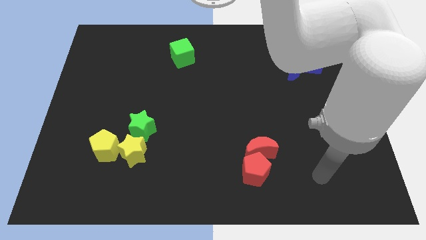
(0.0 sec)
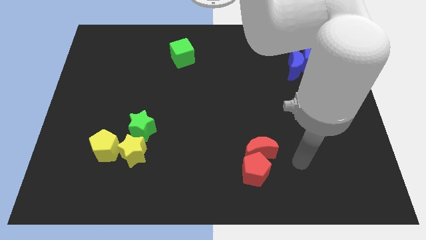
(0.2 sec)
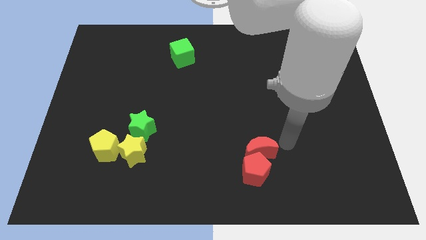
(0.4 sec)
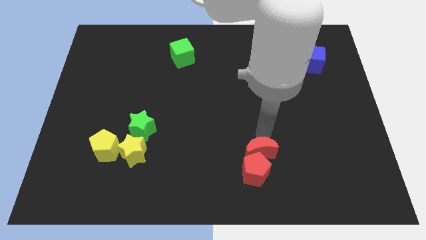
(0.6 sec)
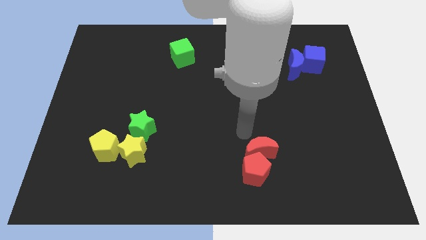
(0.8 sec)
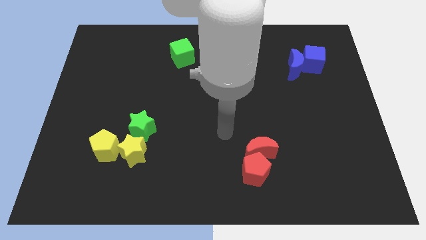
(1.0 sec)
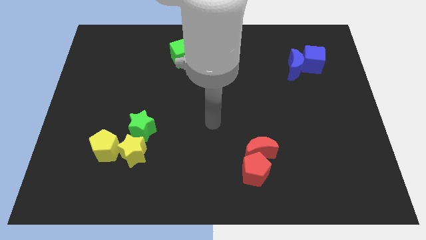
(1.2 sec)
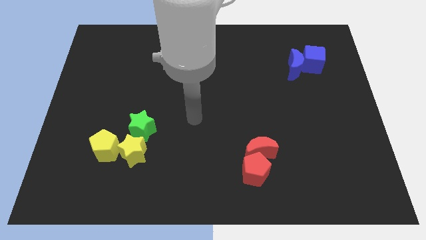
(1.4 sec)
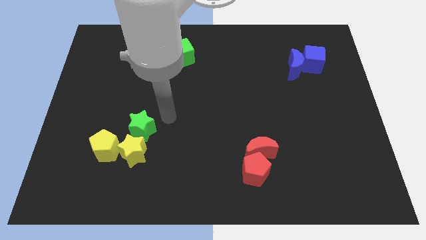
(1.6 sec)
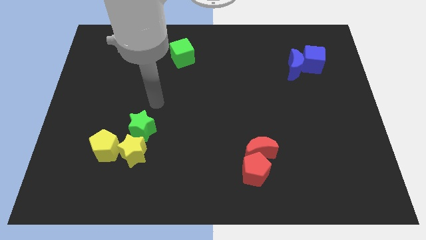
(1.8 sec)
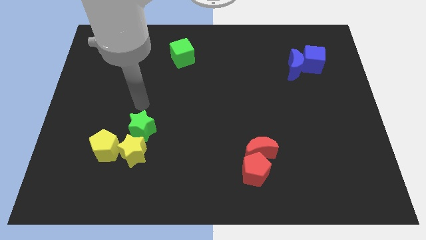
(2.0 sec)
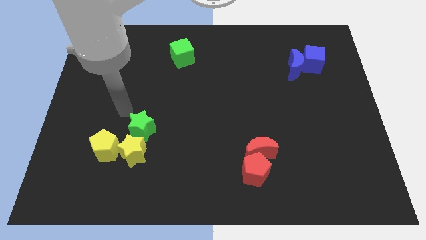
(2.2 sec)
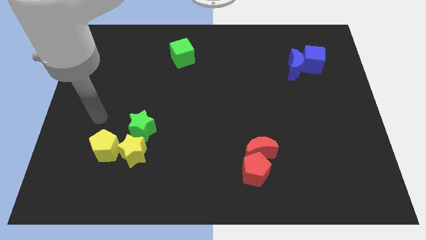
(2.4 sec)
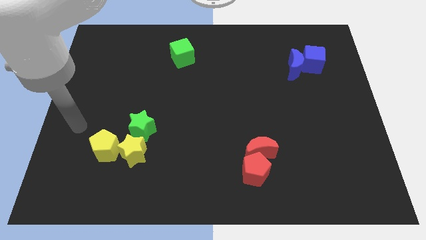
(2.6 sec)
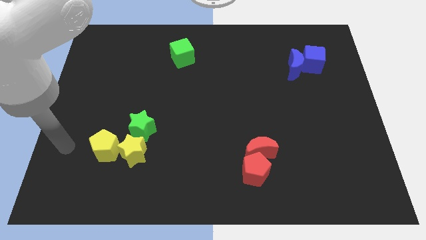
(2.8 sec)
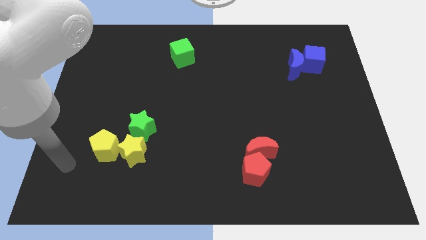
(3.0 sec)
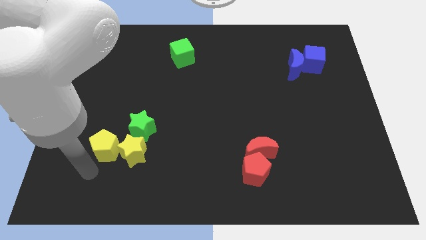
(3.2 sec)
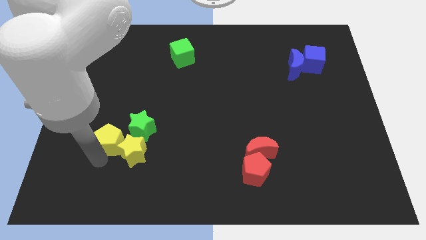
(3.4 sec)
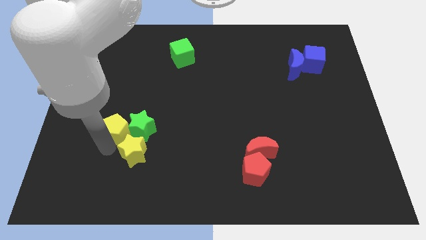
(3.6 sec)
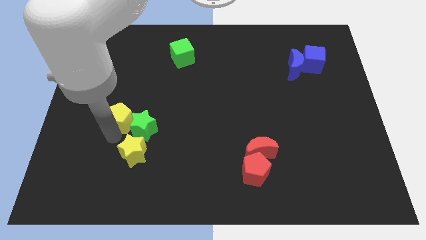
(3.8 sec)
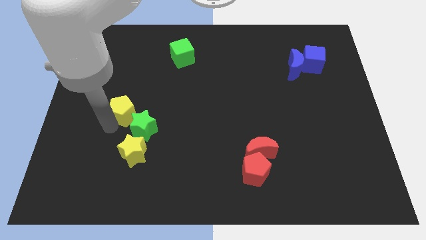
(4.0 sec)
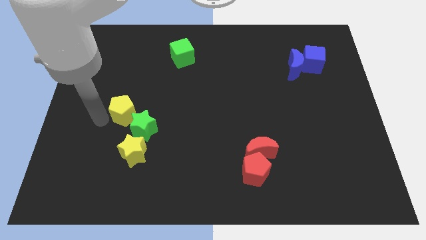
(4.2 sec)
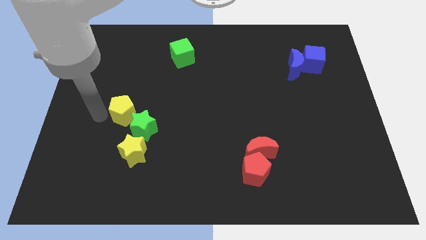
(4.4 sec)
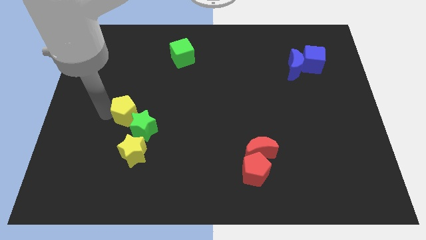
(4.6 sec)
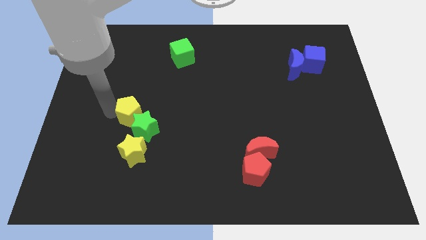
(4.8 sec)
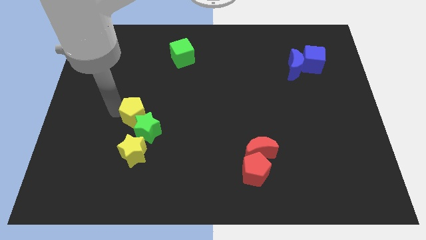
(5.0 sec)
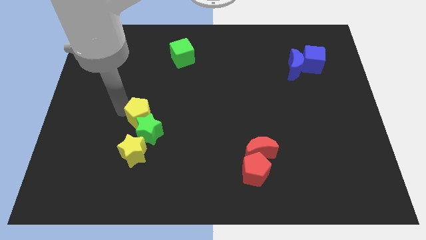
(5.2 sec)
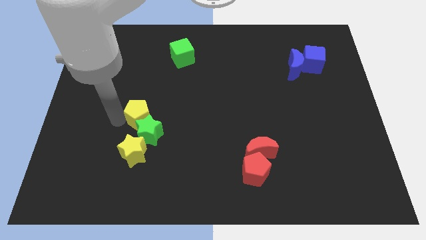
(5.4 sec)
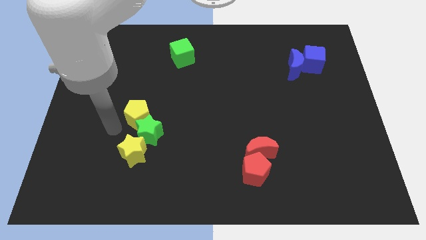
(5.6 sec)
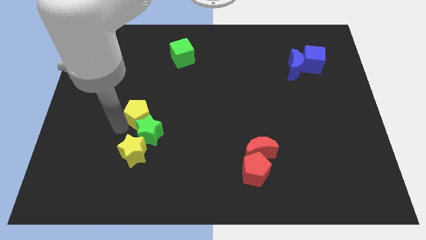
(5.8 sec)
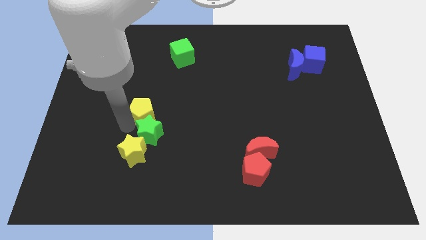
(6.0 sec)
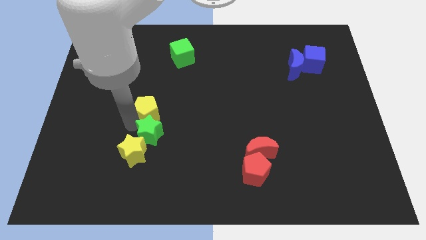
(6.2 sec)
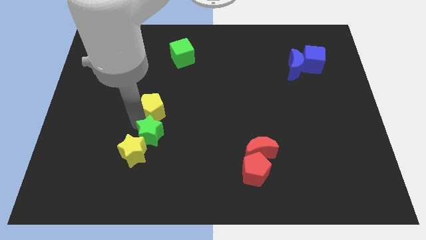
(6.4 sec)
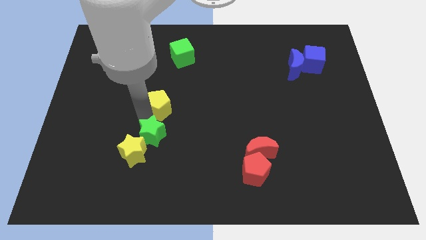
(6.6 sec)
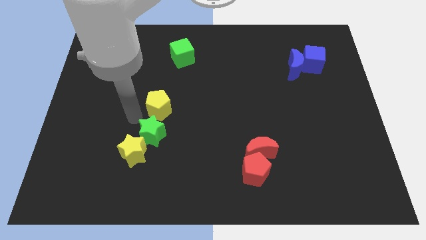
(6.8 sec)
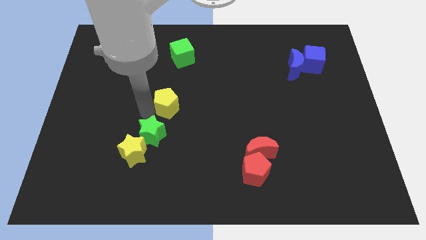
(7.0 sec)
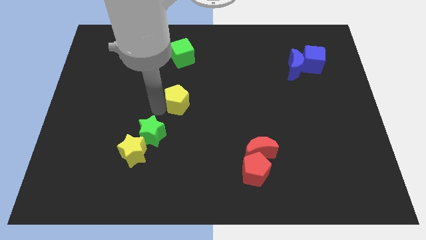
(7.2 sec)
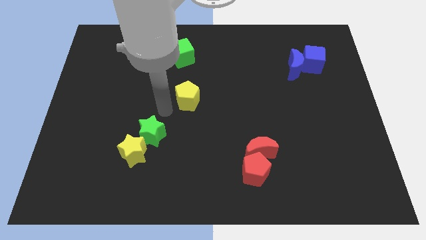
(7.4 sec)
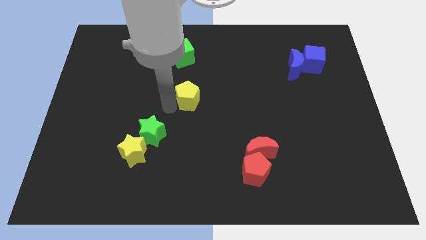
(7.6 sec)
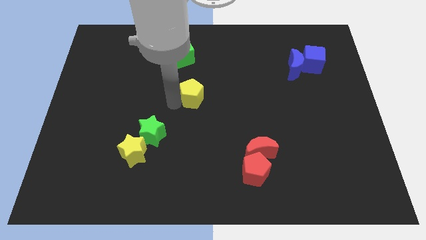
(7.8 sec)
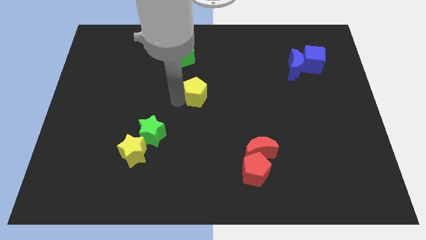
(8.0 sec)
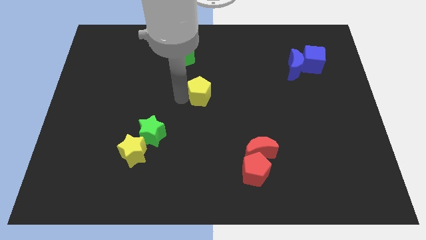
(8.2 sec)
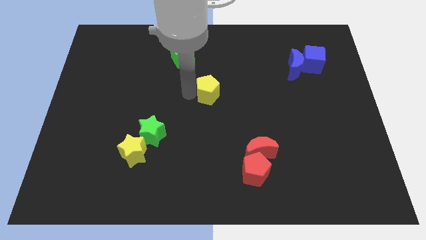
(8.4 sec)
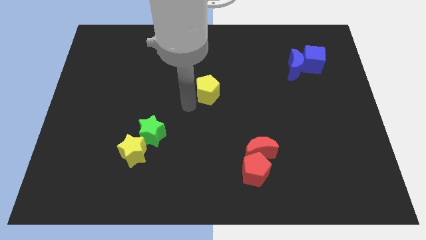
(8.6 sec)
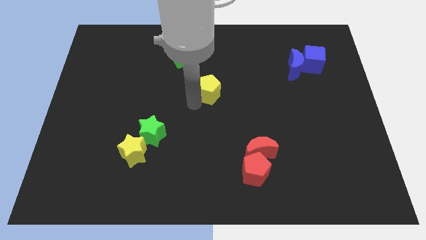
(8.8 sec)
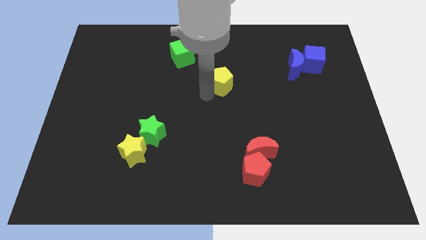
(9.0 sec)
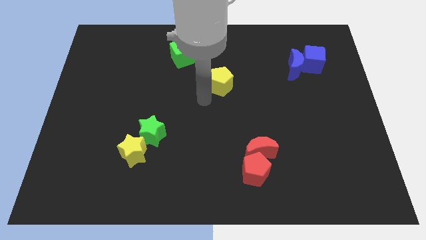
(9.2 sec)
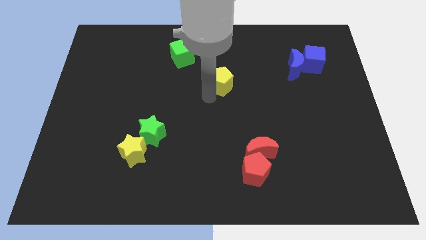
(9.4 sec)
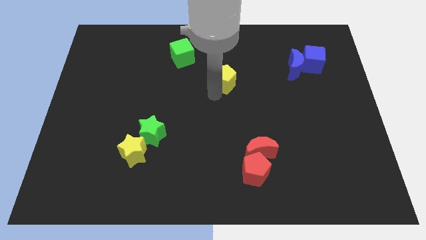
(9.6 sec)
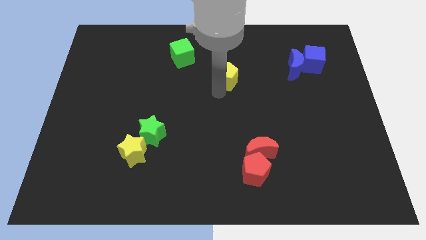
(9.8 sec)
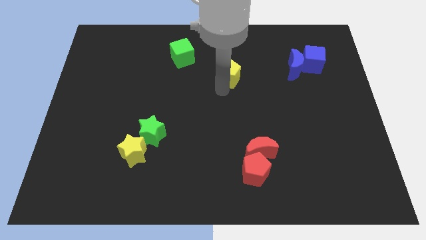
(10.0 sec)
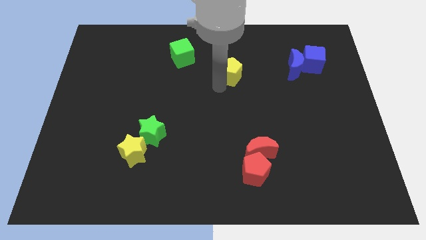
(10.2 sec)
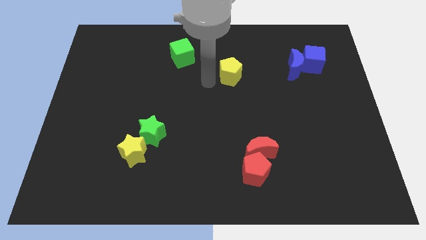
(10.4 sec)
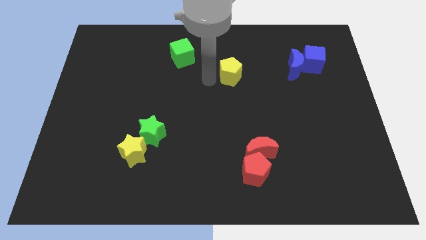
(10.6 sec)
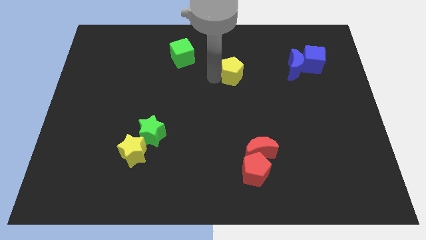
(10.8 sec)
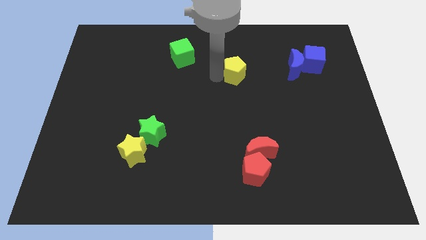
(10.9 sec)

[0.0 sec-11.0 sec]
put the yellow pentagon left of the blue moon

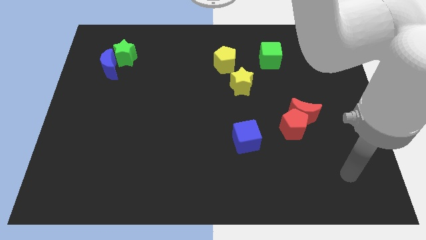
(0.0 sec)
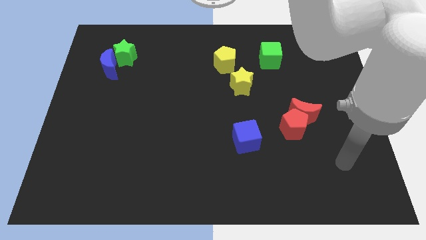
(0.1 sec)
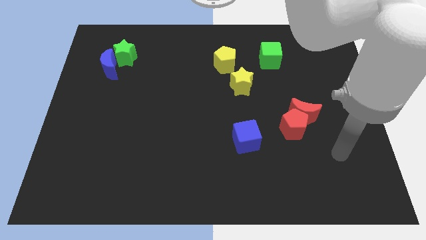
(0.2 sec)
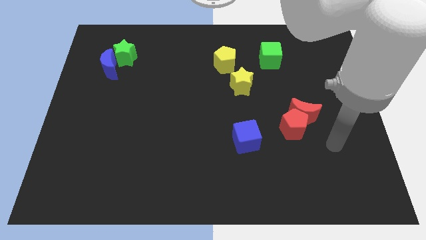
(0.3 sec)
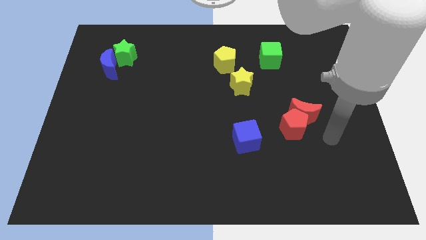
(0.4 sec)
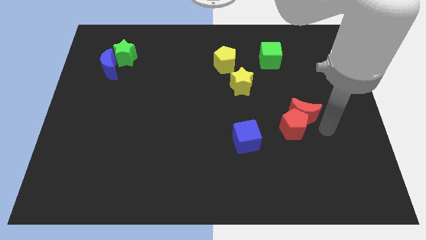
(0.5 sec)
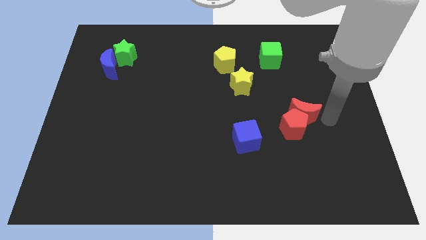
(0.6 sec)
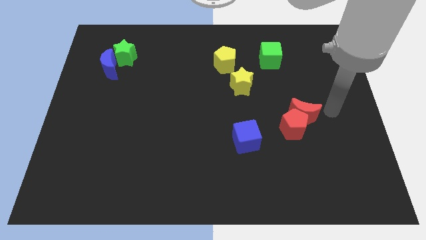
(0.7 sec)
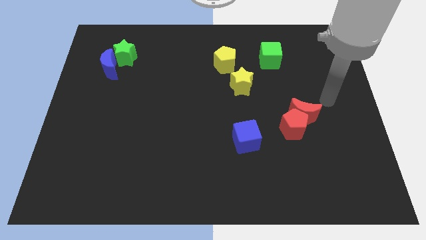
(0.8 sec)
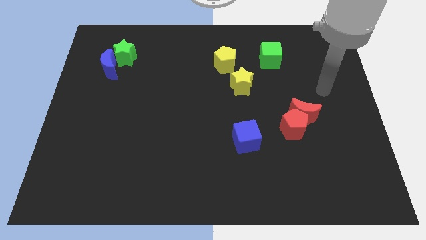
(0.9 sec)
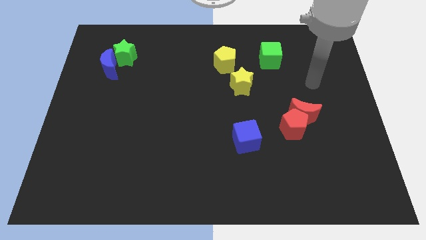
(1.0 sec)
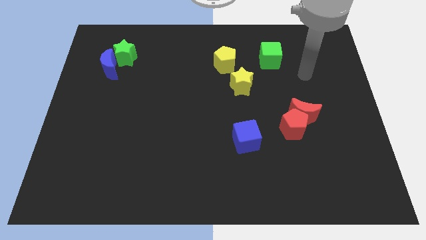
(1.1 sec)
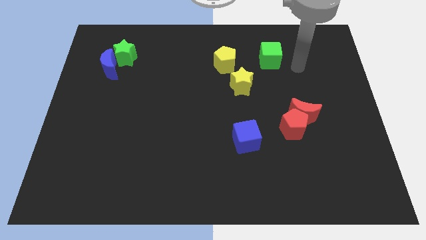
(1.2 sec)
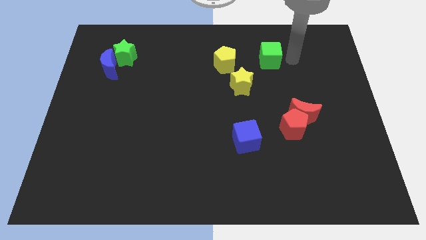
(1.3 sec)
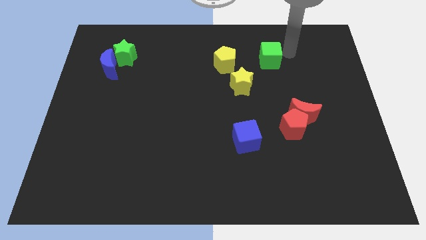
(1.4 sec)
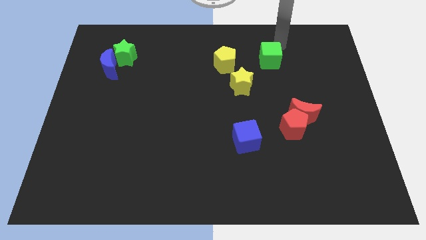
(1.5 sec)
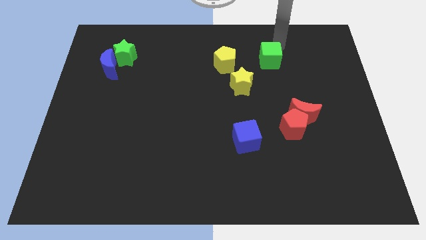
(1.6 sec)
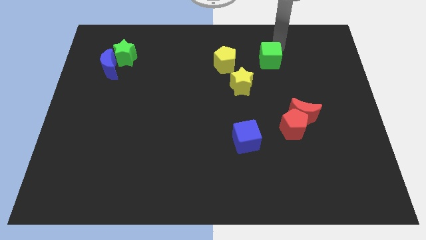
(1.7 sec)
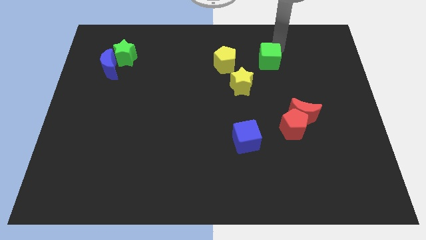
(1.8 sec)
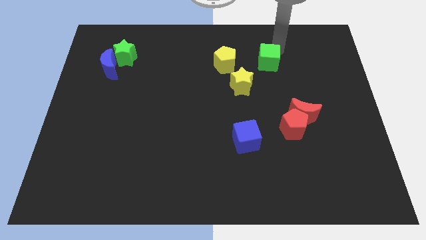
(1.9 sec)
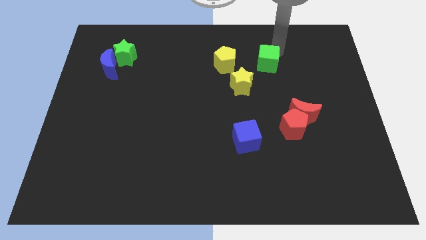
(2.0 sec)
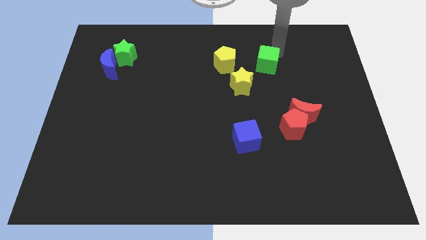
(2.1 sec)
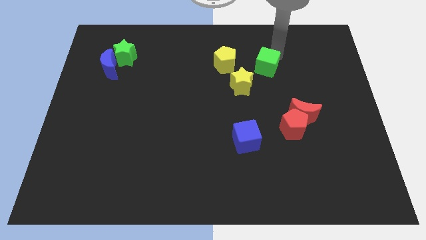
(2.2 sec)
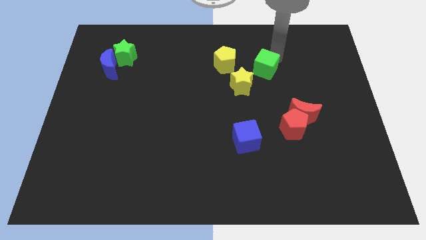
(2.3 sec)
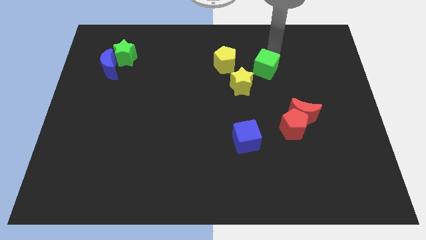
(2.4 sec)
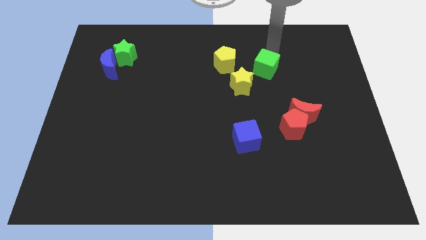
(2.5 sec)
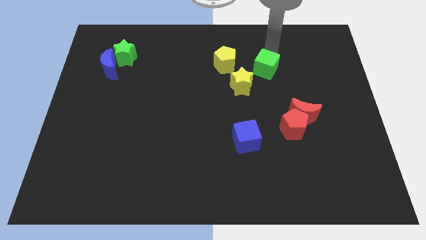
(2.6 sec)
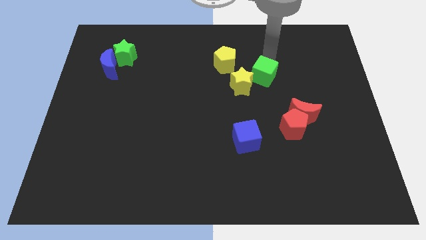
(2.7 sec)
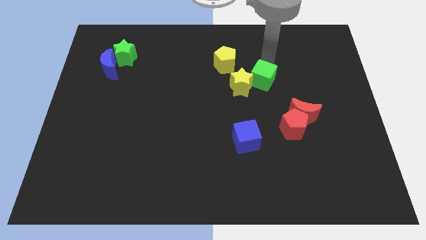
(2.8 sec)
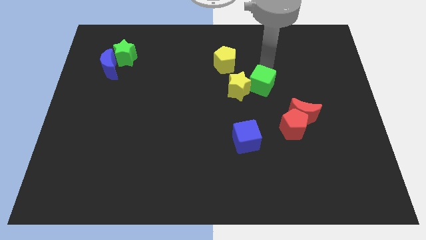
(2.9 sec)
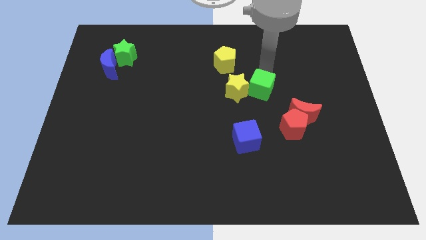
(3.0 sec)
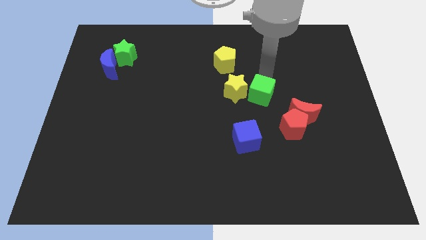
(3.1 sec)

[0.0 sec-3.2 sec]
slide the green cube to the top of the blue cube
